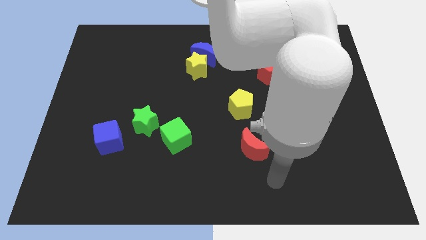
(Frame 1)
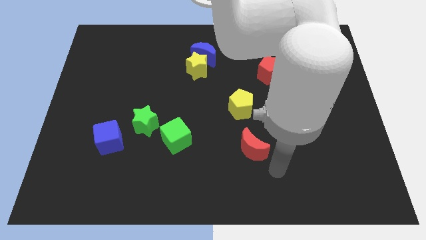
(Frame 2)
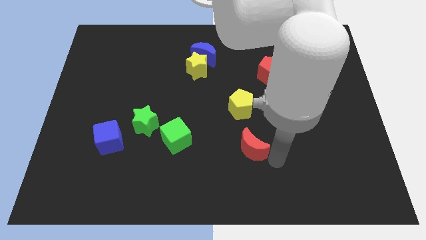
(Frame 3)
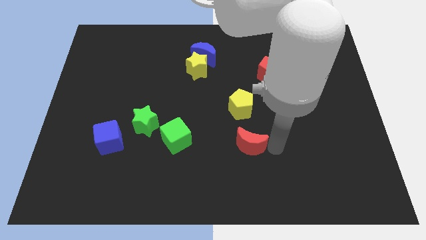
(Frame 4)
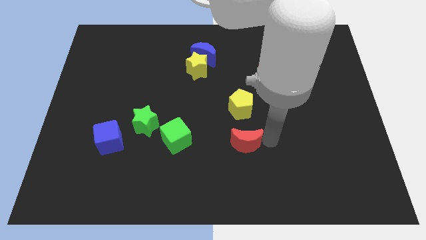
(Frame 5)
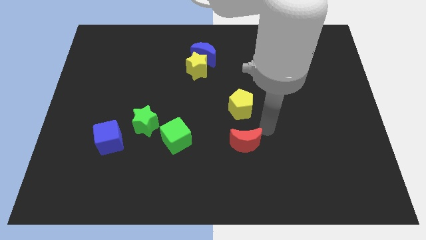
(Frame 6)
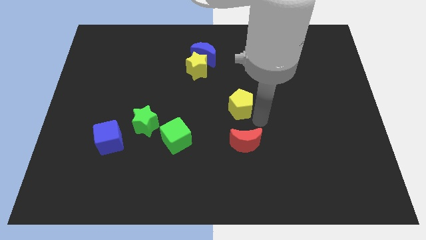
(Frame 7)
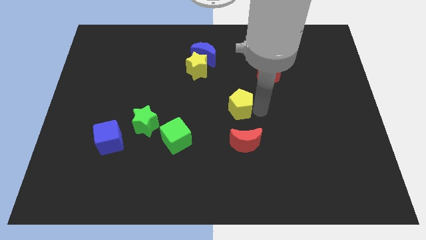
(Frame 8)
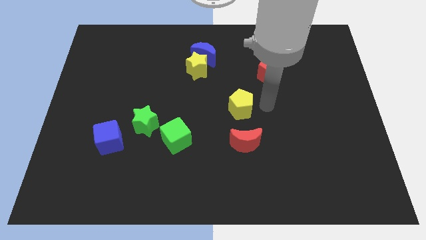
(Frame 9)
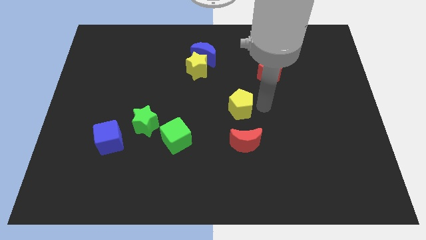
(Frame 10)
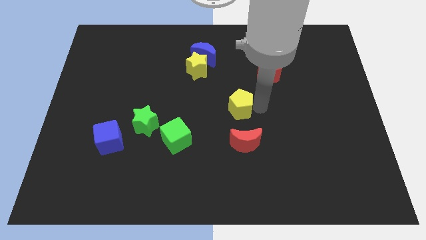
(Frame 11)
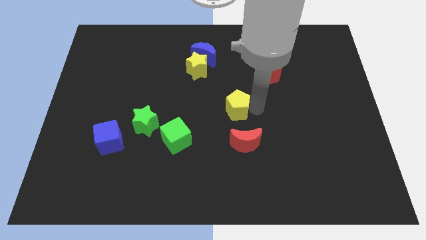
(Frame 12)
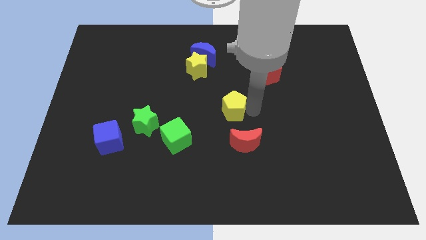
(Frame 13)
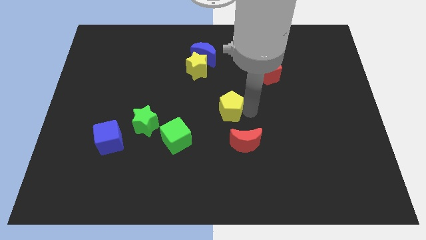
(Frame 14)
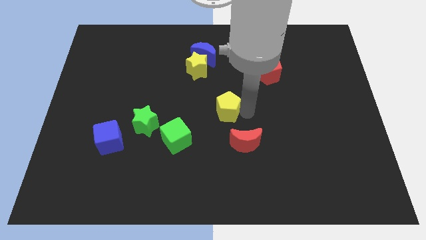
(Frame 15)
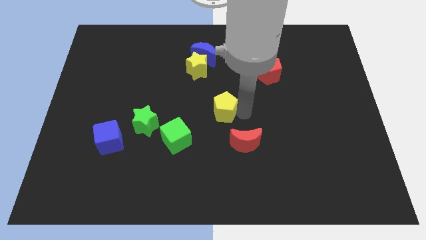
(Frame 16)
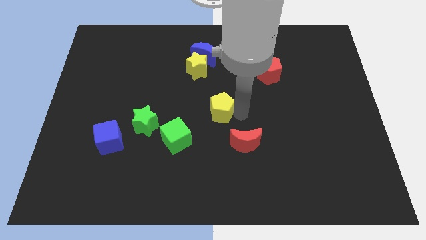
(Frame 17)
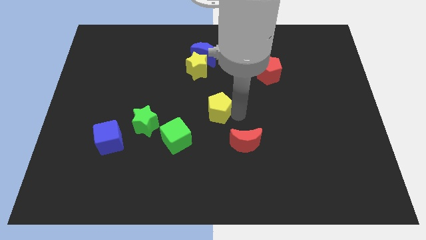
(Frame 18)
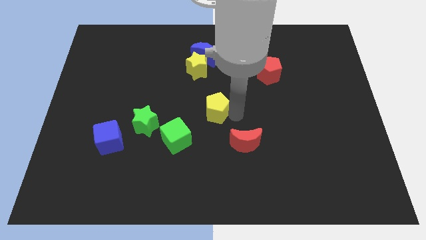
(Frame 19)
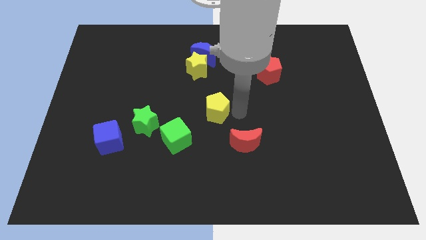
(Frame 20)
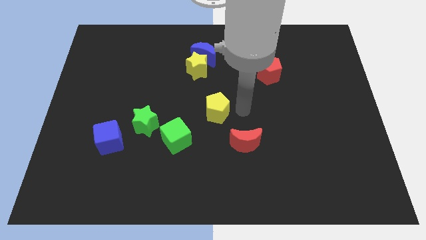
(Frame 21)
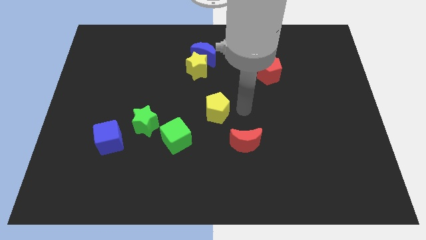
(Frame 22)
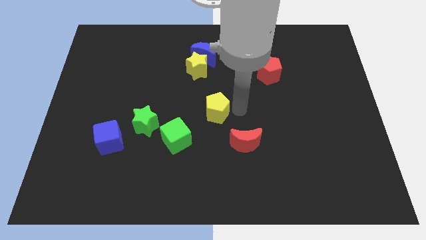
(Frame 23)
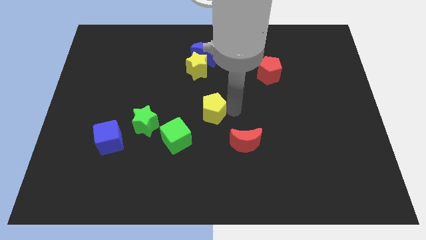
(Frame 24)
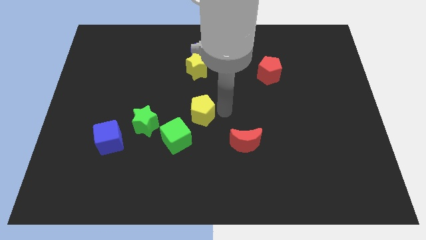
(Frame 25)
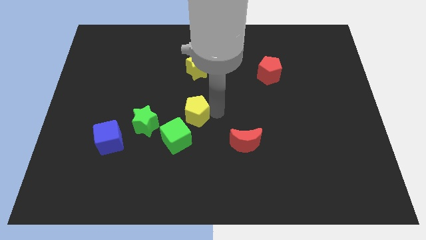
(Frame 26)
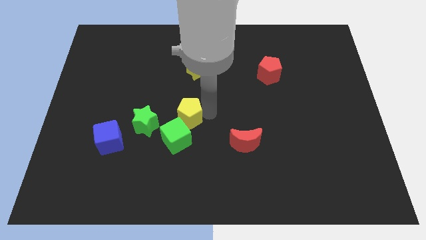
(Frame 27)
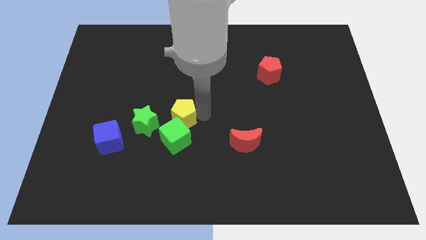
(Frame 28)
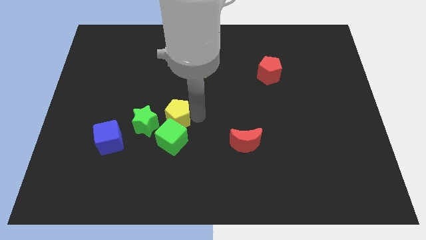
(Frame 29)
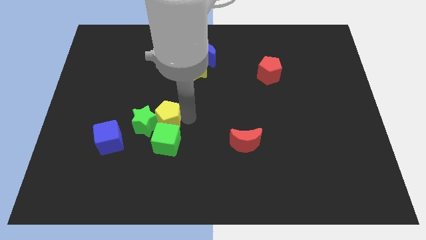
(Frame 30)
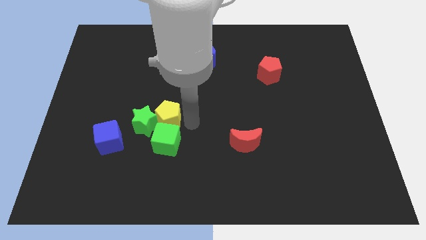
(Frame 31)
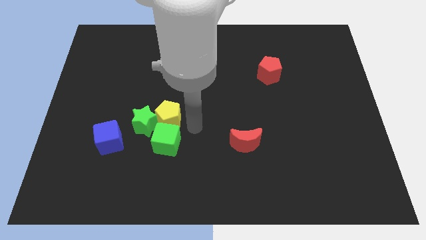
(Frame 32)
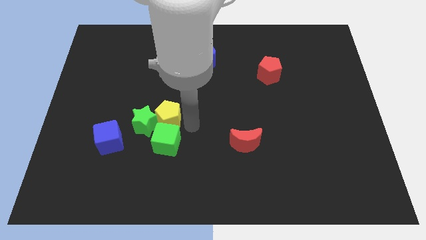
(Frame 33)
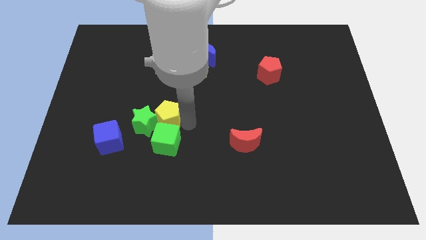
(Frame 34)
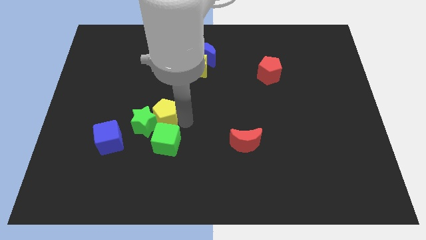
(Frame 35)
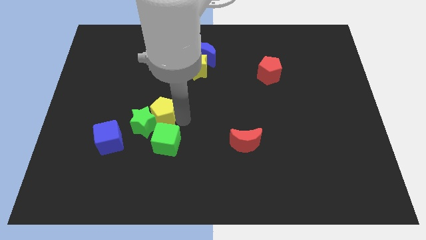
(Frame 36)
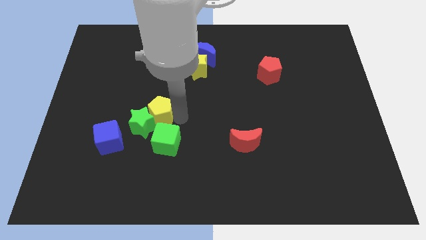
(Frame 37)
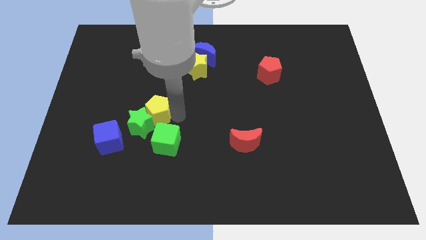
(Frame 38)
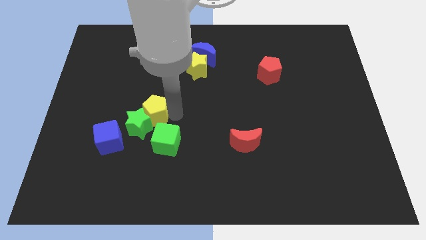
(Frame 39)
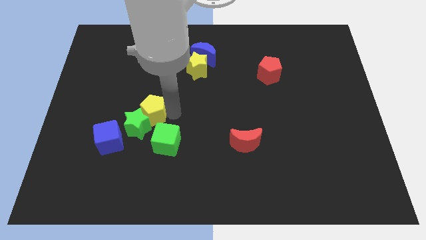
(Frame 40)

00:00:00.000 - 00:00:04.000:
move the yellow pentagon to the left

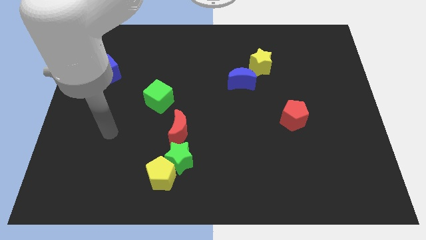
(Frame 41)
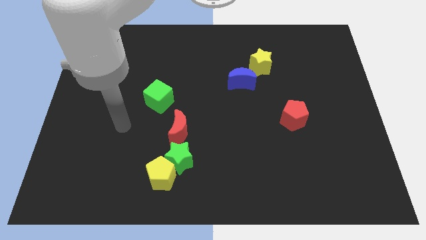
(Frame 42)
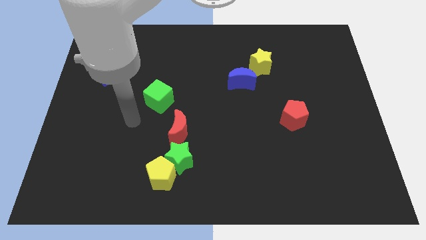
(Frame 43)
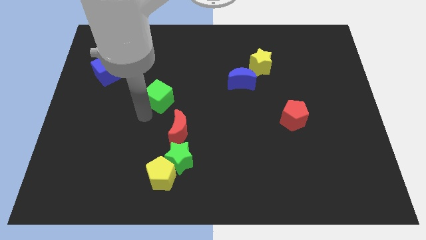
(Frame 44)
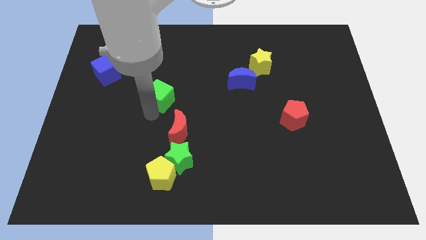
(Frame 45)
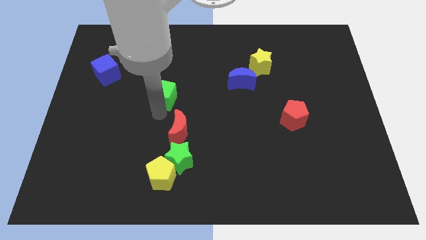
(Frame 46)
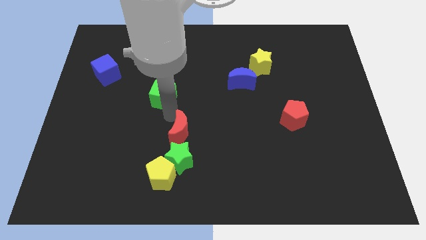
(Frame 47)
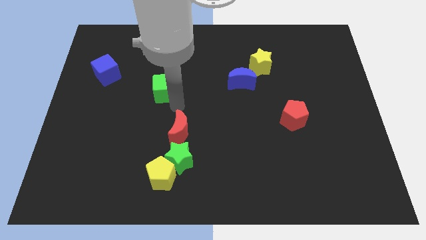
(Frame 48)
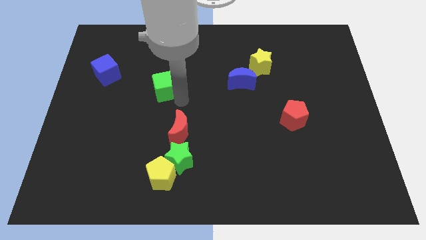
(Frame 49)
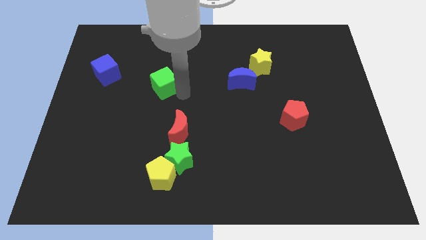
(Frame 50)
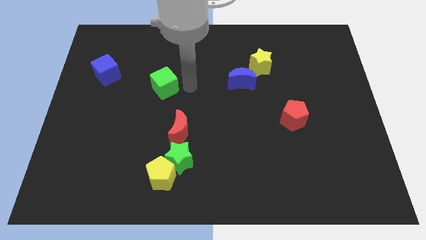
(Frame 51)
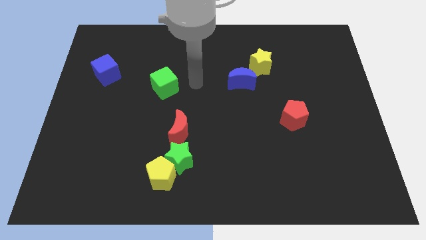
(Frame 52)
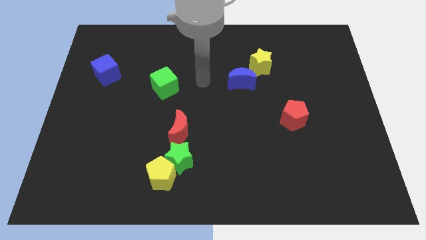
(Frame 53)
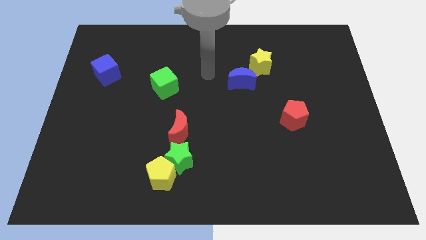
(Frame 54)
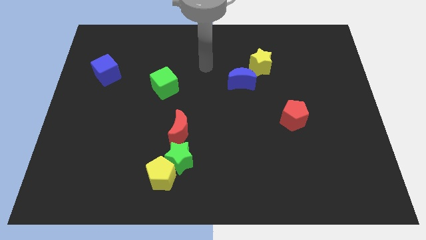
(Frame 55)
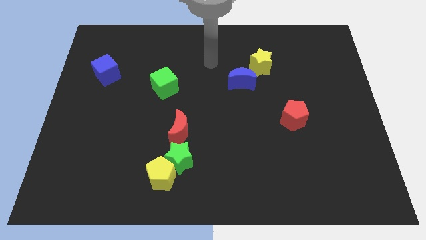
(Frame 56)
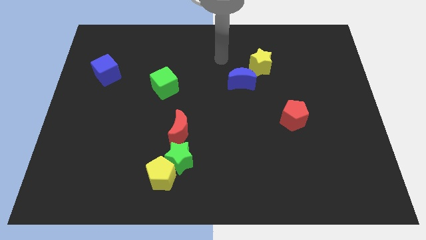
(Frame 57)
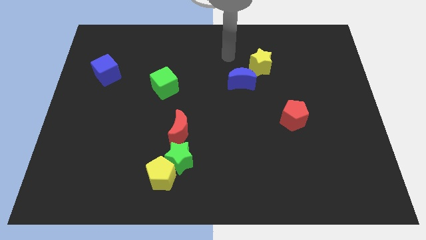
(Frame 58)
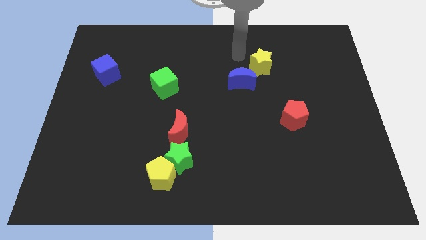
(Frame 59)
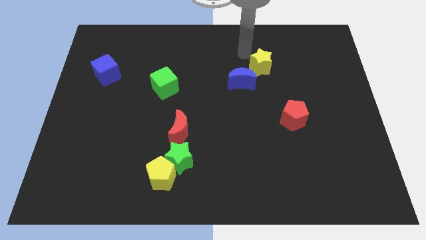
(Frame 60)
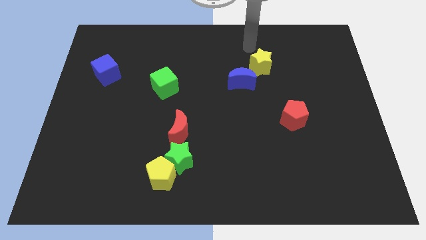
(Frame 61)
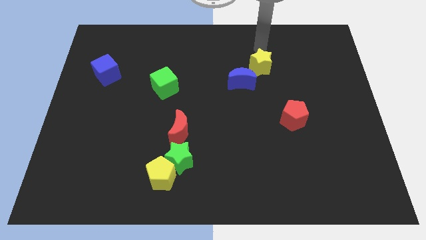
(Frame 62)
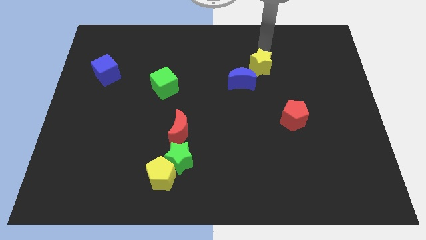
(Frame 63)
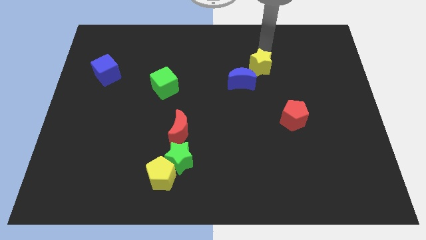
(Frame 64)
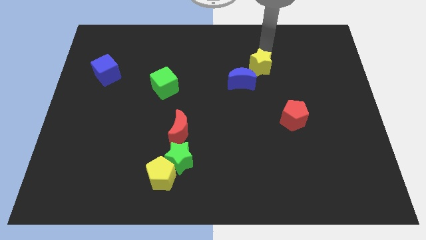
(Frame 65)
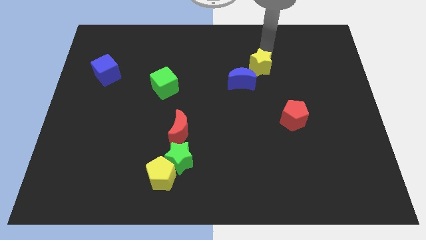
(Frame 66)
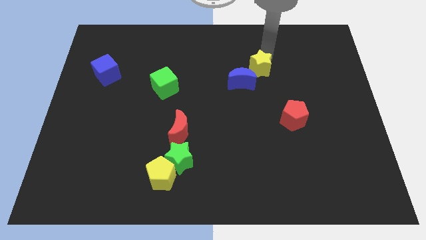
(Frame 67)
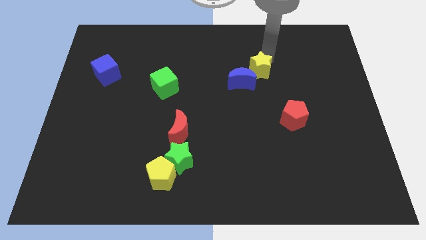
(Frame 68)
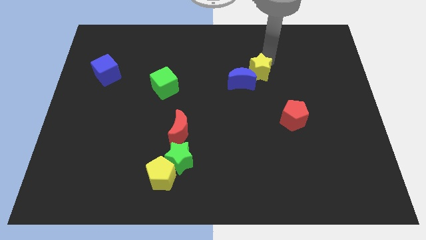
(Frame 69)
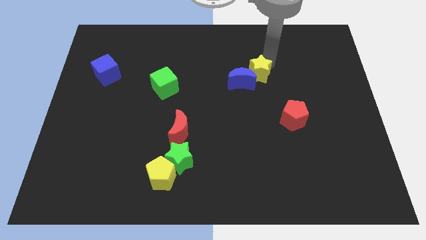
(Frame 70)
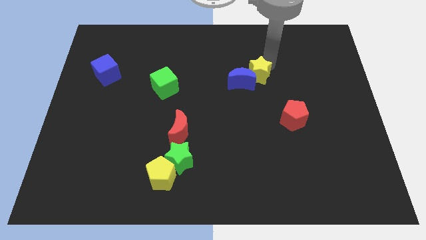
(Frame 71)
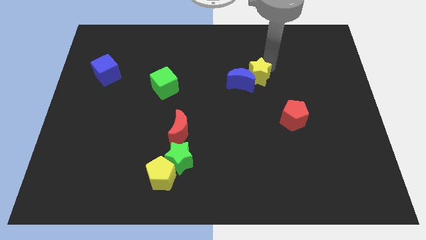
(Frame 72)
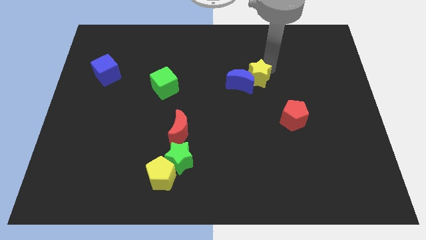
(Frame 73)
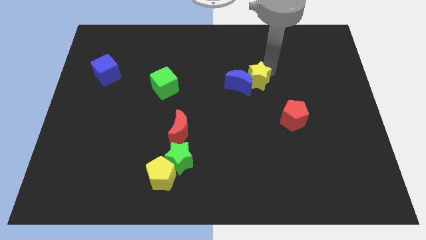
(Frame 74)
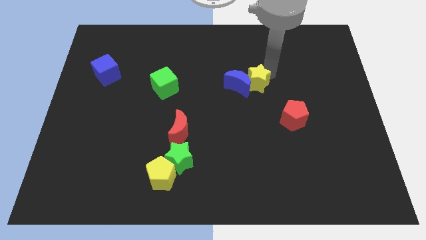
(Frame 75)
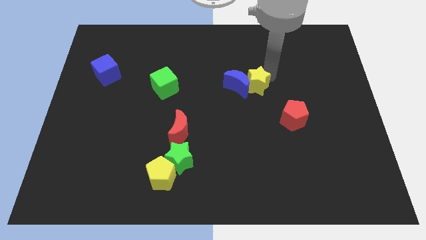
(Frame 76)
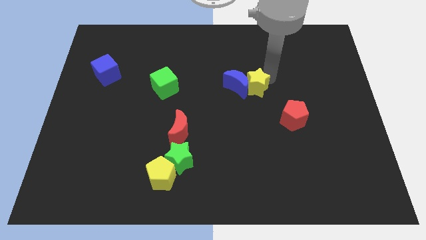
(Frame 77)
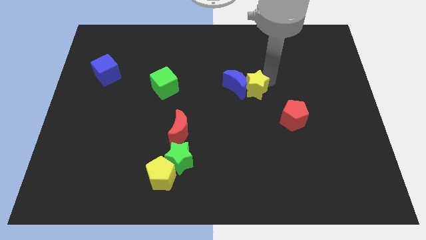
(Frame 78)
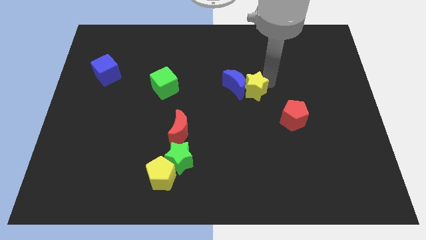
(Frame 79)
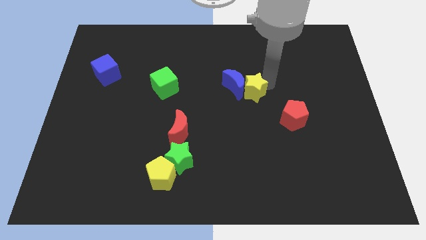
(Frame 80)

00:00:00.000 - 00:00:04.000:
slide the yellow star slightly down and left
